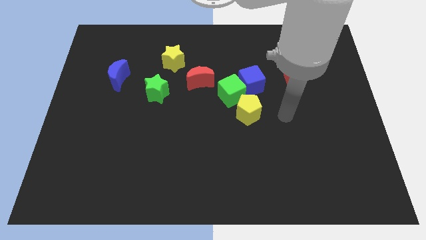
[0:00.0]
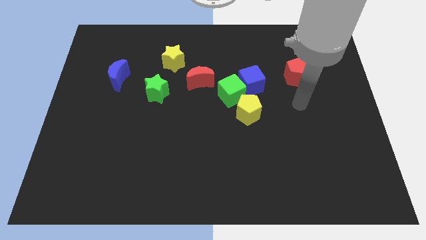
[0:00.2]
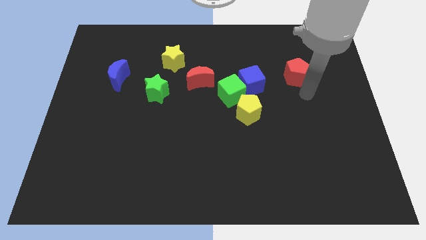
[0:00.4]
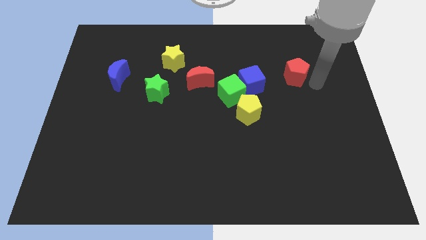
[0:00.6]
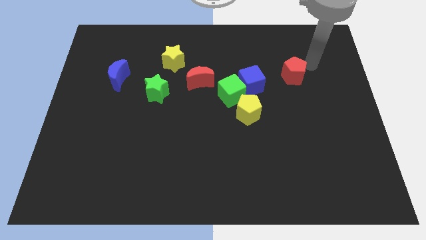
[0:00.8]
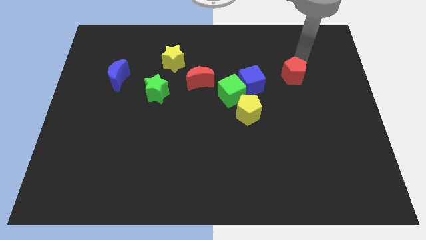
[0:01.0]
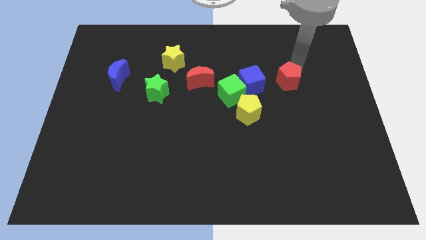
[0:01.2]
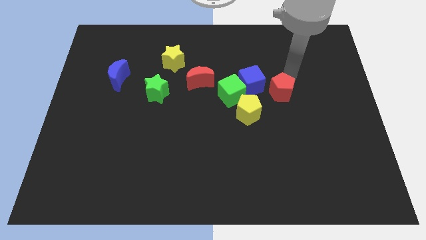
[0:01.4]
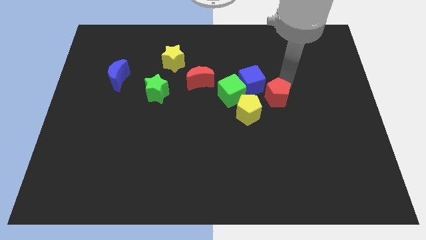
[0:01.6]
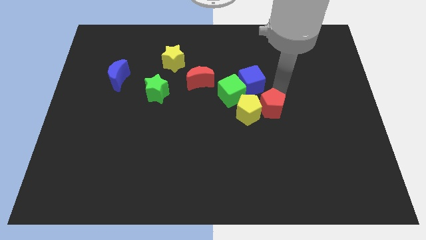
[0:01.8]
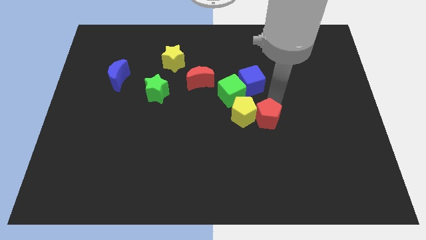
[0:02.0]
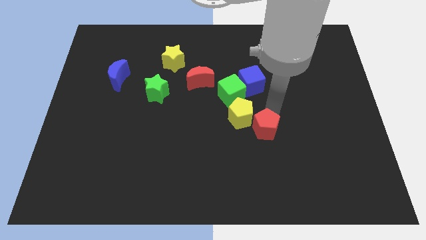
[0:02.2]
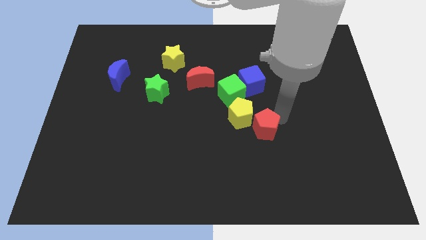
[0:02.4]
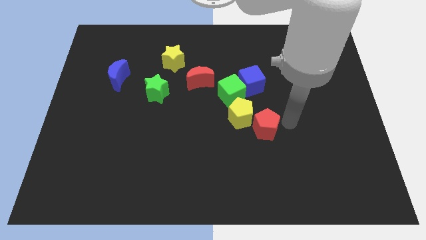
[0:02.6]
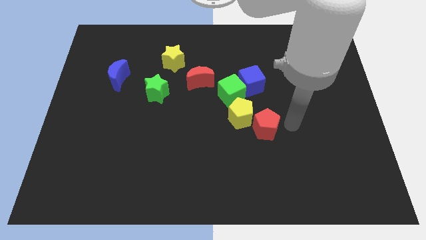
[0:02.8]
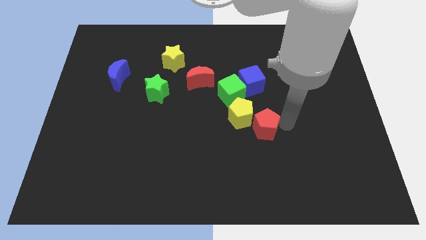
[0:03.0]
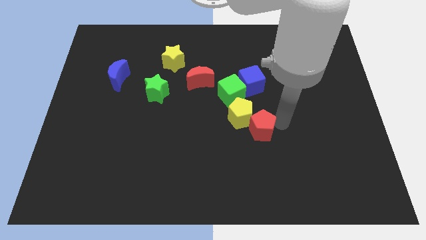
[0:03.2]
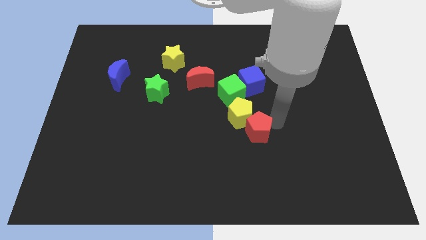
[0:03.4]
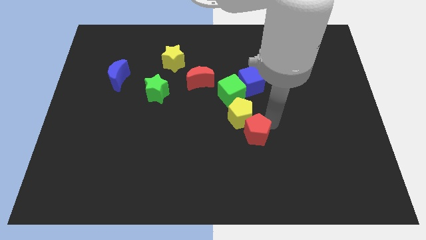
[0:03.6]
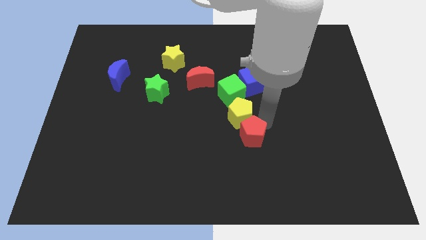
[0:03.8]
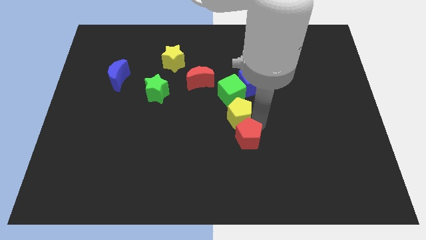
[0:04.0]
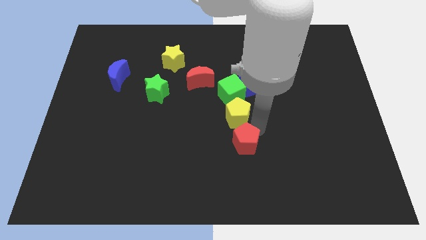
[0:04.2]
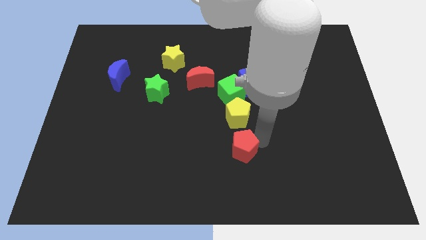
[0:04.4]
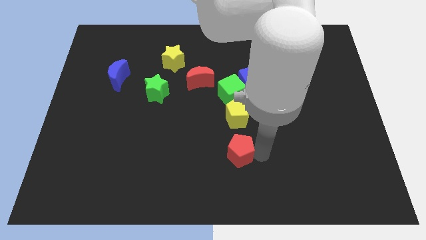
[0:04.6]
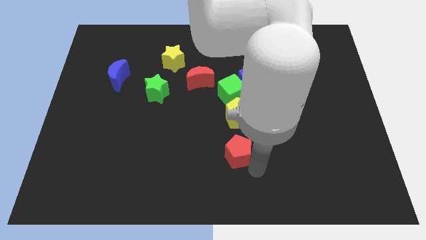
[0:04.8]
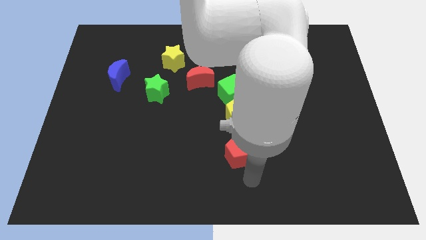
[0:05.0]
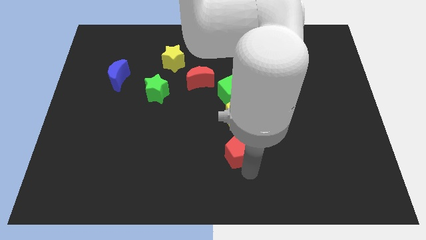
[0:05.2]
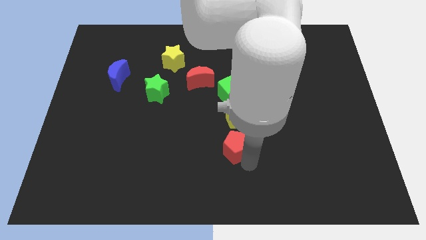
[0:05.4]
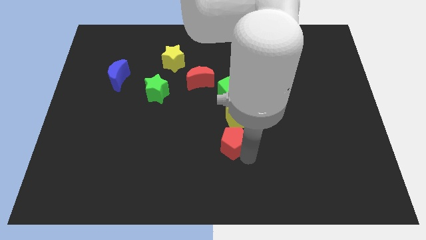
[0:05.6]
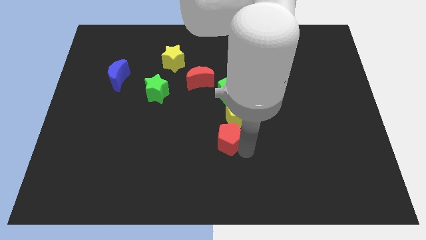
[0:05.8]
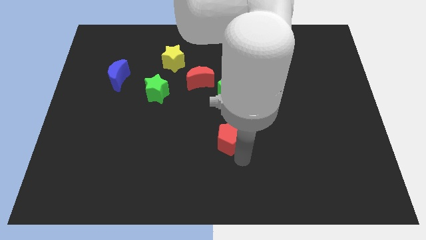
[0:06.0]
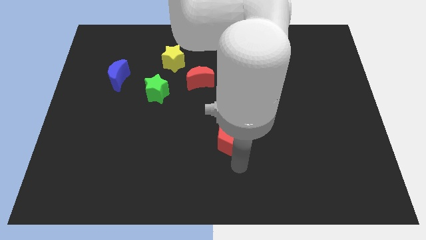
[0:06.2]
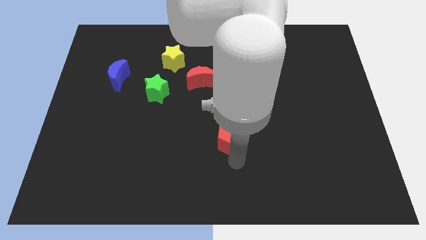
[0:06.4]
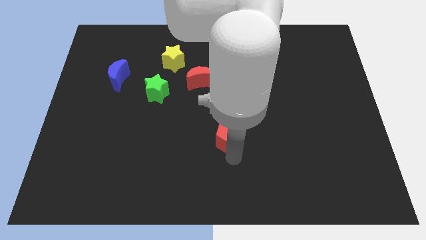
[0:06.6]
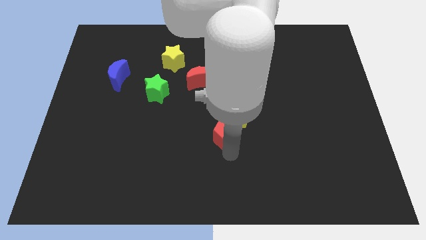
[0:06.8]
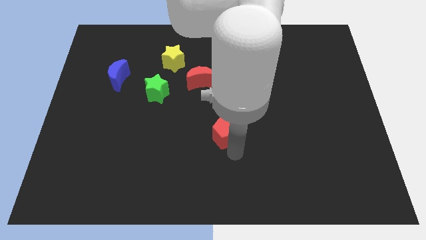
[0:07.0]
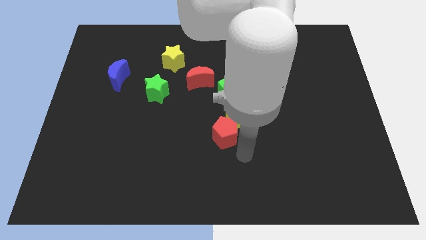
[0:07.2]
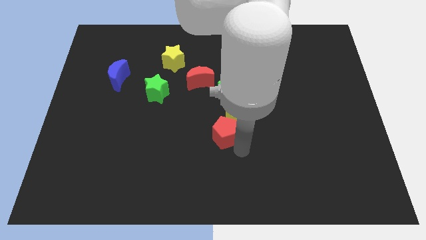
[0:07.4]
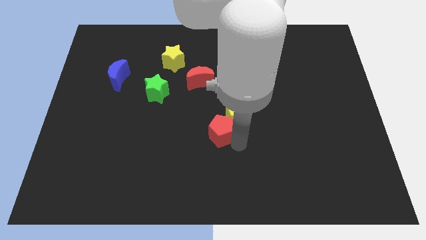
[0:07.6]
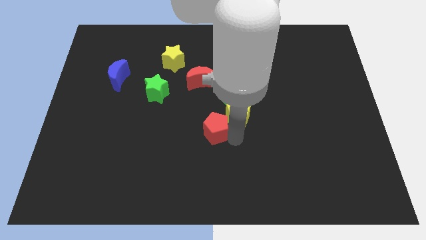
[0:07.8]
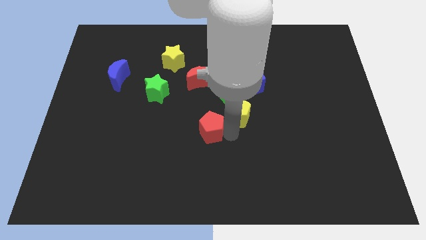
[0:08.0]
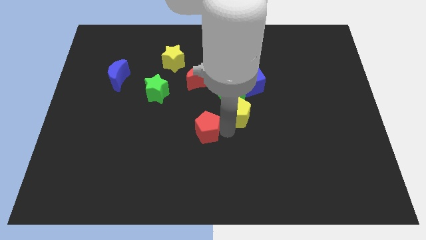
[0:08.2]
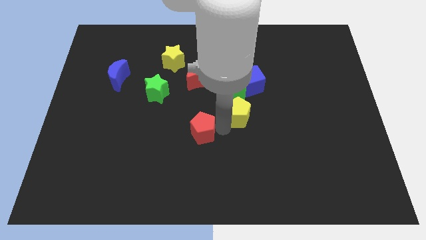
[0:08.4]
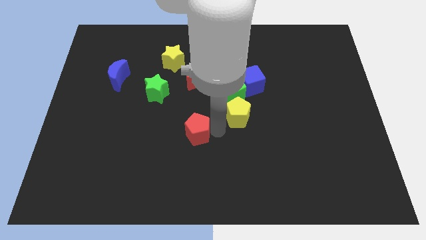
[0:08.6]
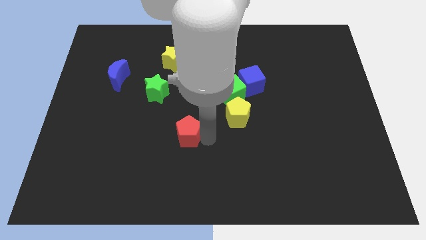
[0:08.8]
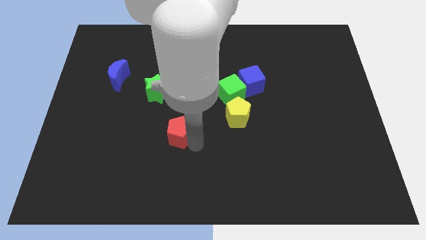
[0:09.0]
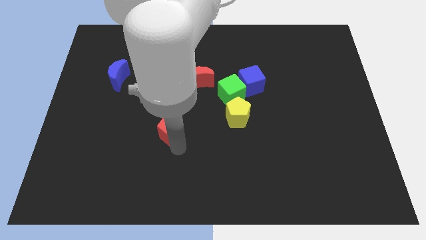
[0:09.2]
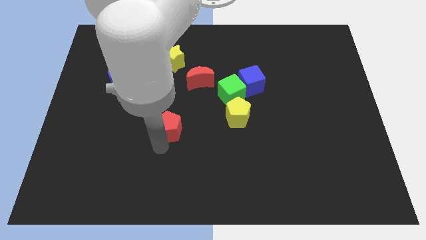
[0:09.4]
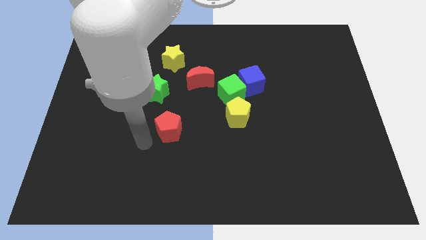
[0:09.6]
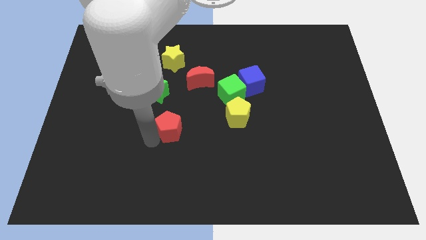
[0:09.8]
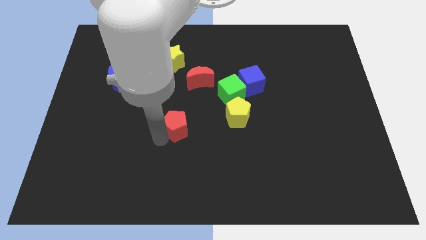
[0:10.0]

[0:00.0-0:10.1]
push the red pentagon to the bottom right of the green star

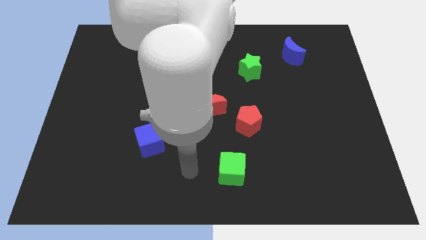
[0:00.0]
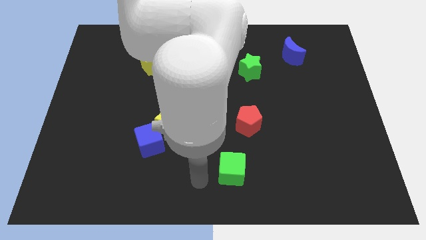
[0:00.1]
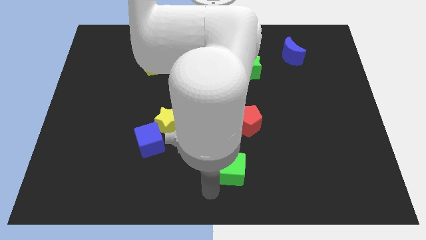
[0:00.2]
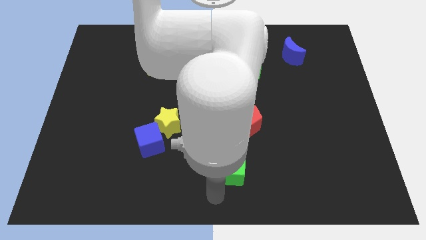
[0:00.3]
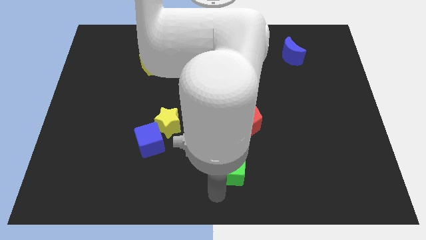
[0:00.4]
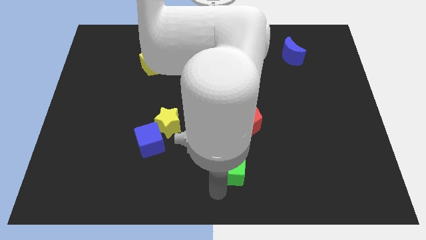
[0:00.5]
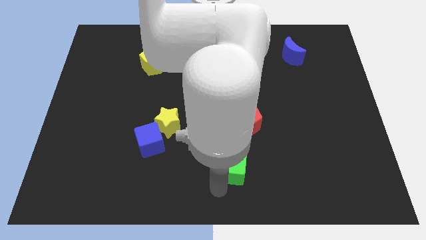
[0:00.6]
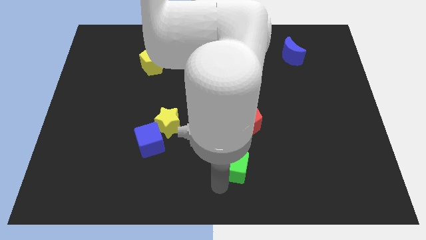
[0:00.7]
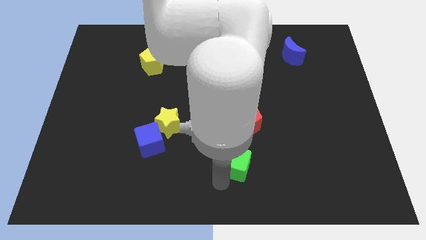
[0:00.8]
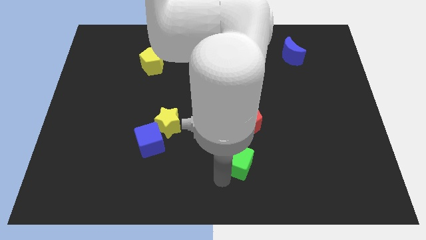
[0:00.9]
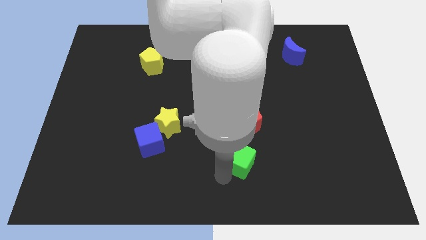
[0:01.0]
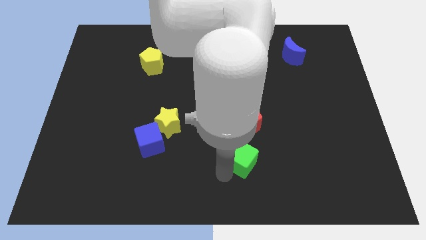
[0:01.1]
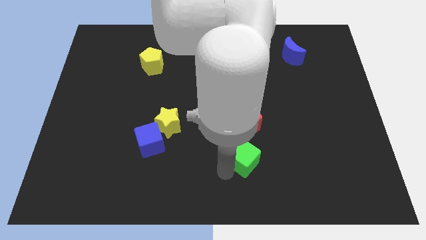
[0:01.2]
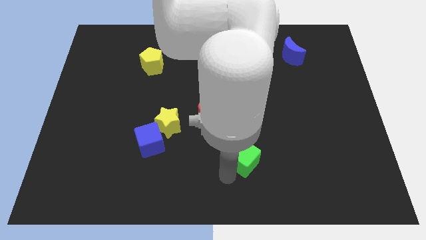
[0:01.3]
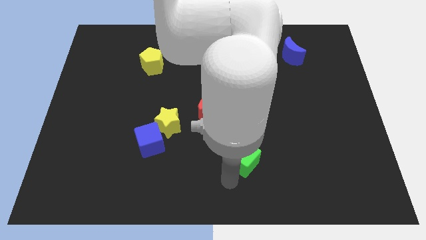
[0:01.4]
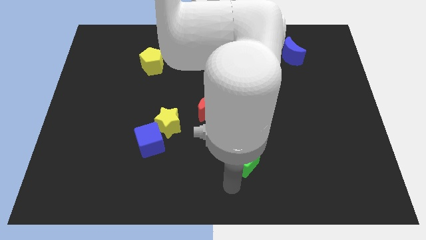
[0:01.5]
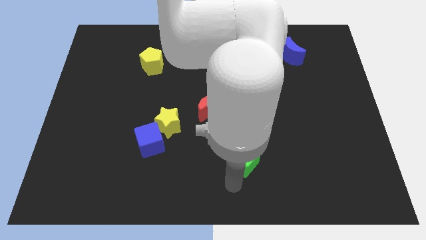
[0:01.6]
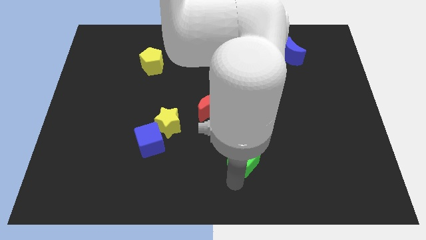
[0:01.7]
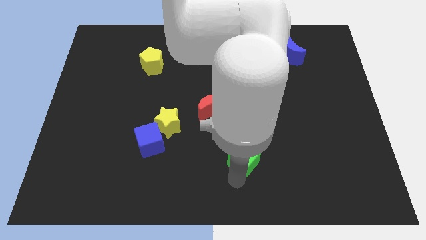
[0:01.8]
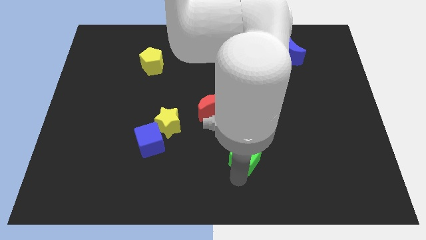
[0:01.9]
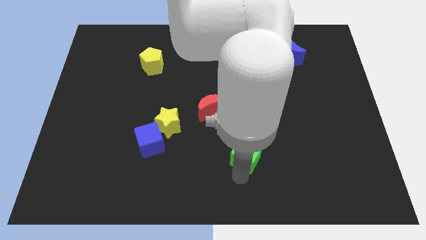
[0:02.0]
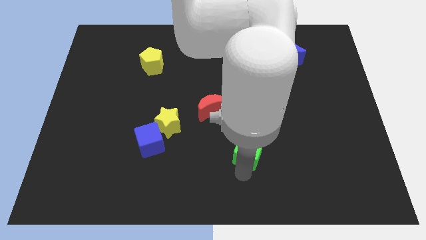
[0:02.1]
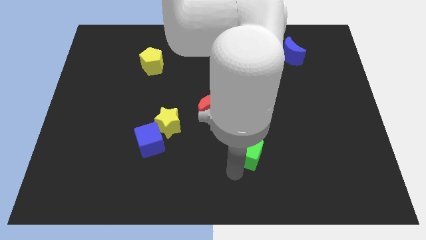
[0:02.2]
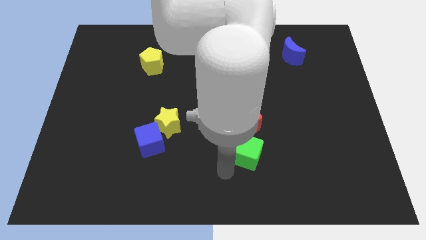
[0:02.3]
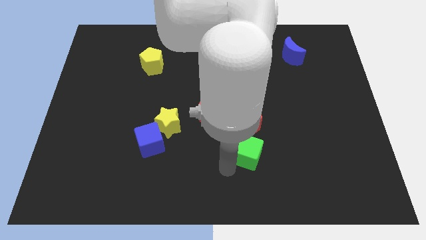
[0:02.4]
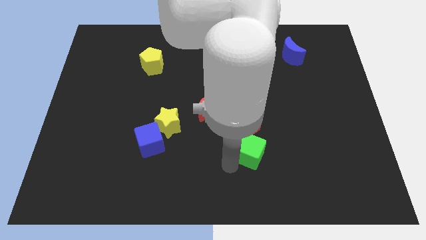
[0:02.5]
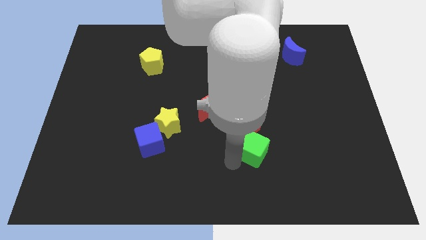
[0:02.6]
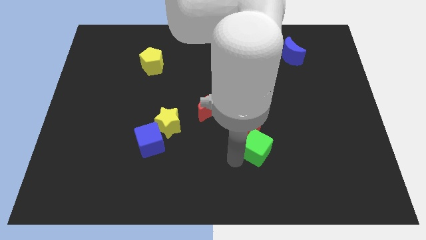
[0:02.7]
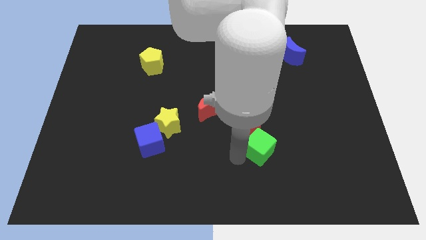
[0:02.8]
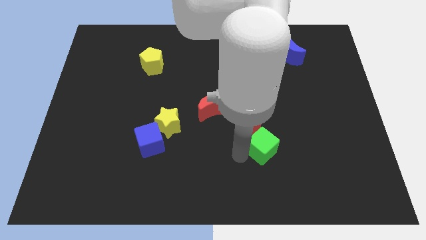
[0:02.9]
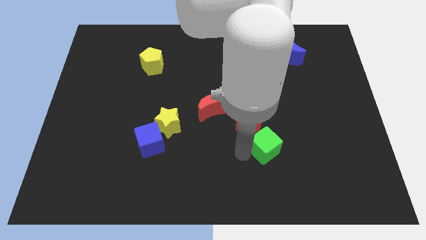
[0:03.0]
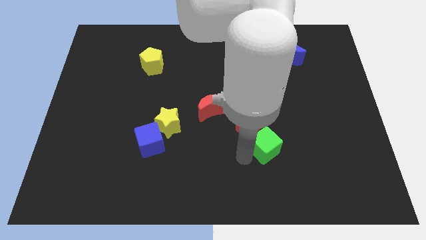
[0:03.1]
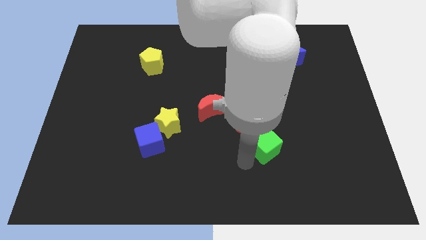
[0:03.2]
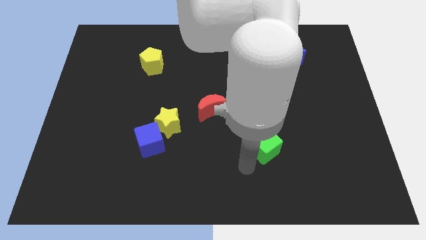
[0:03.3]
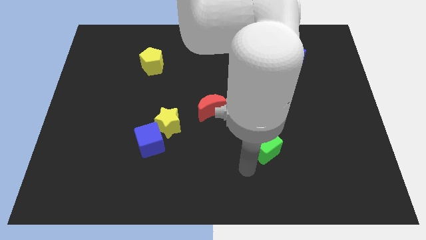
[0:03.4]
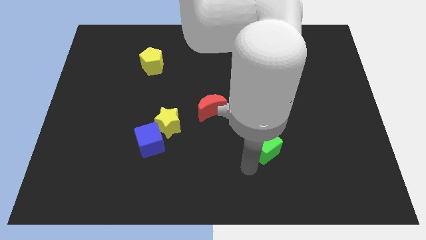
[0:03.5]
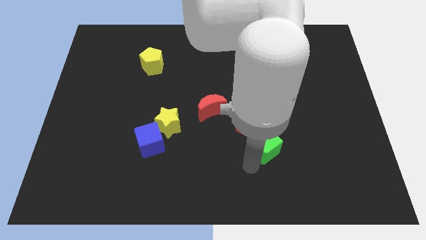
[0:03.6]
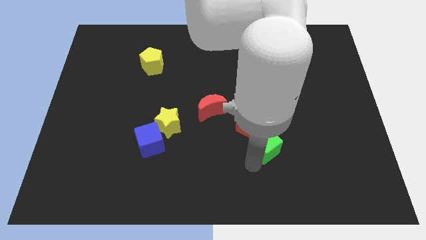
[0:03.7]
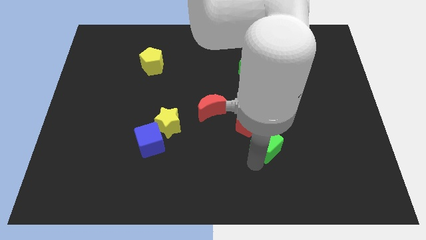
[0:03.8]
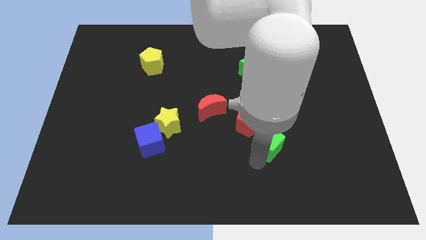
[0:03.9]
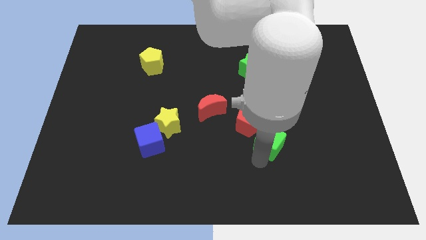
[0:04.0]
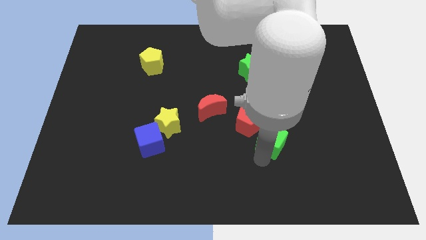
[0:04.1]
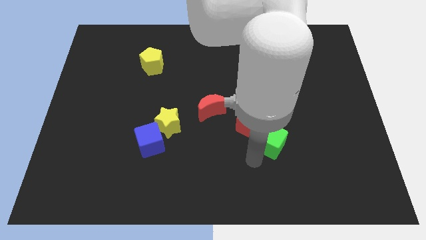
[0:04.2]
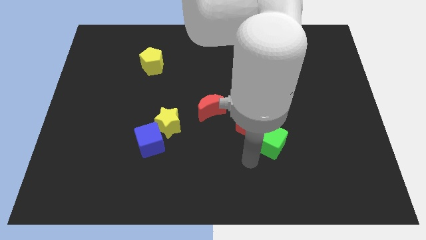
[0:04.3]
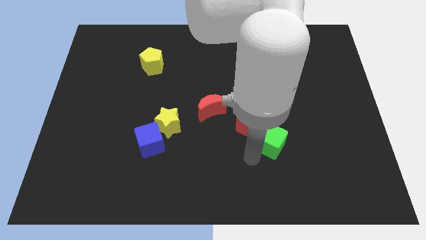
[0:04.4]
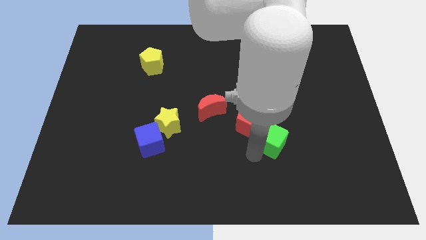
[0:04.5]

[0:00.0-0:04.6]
slide the green cube just right of the red pentagon
